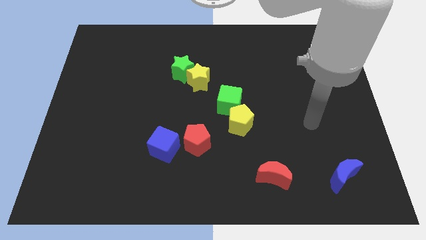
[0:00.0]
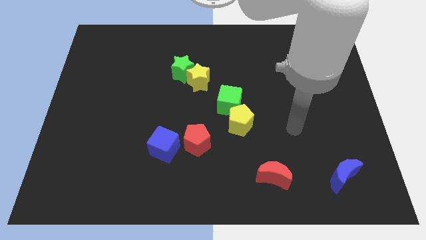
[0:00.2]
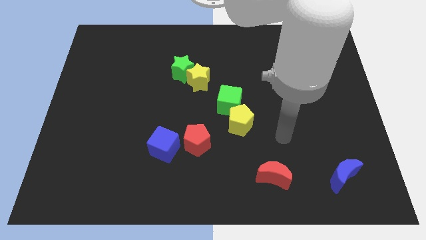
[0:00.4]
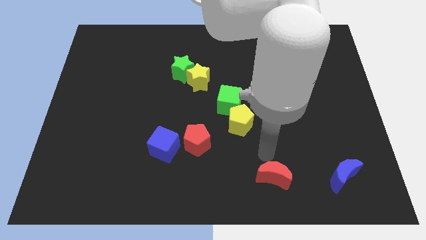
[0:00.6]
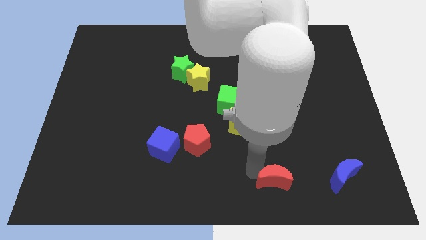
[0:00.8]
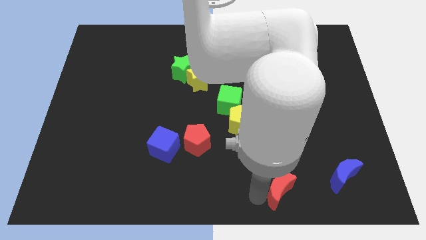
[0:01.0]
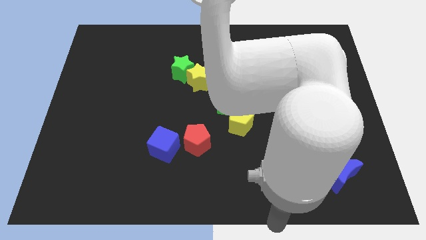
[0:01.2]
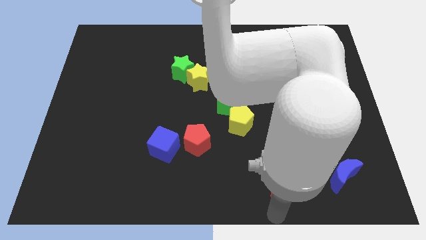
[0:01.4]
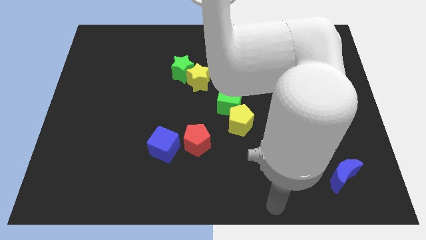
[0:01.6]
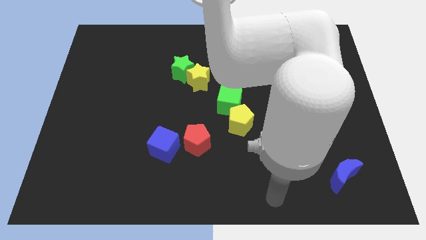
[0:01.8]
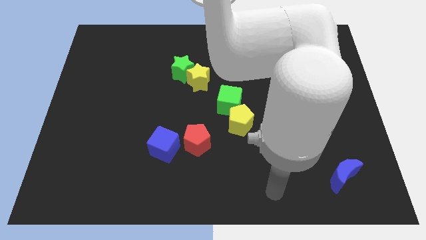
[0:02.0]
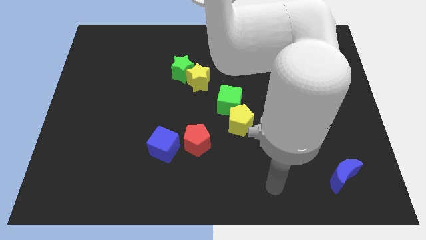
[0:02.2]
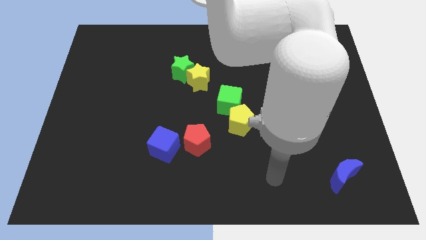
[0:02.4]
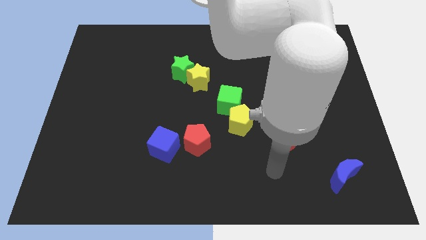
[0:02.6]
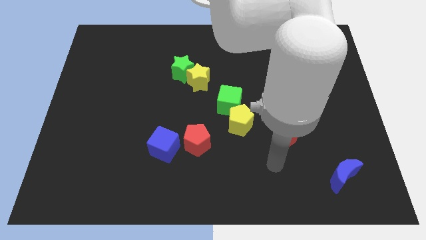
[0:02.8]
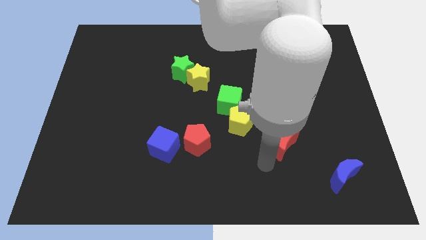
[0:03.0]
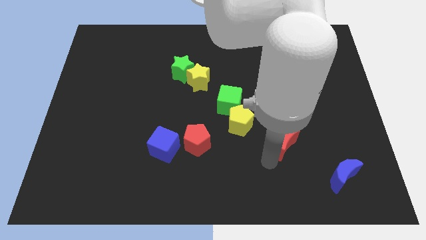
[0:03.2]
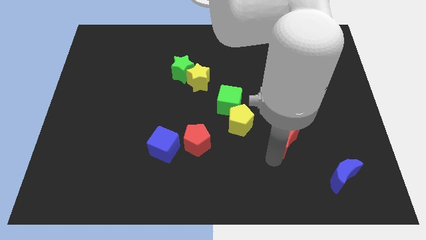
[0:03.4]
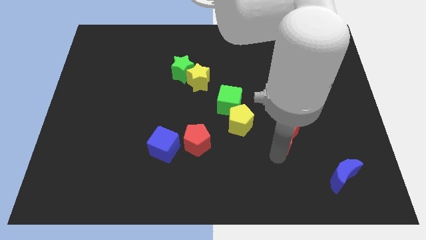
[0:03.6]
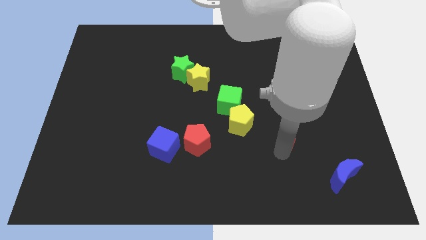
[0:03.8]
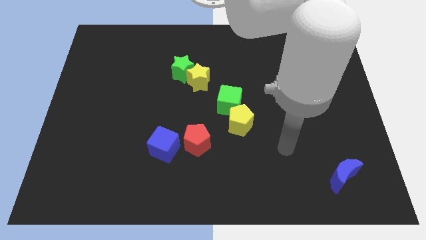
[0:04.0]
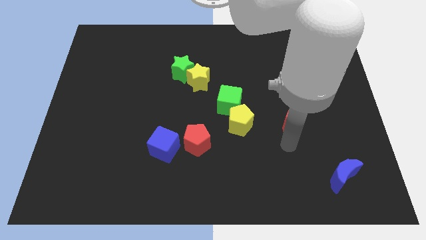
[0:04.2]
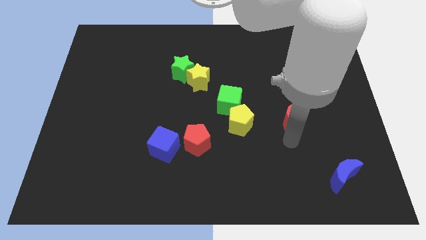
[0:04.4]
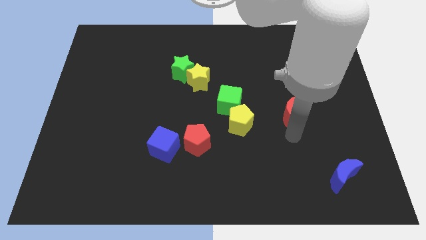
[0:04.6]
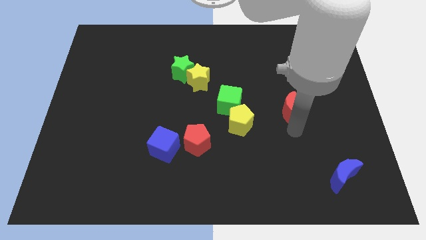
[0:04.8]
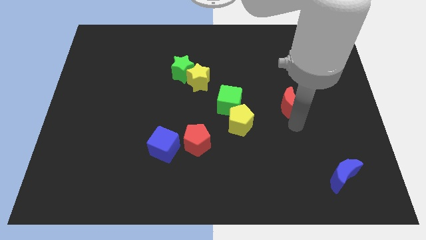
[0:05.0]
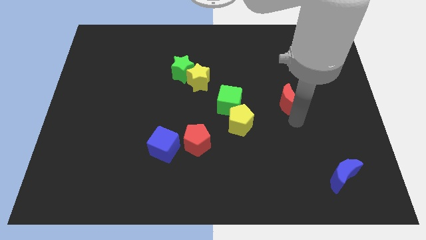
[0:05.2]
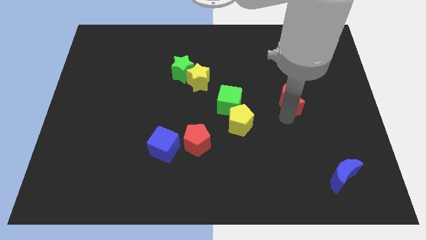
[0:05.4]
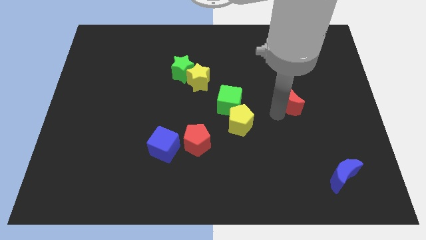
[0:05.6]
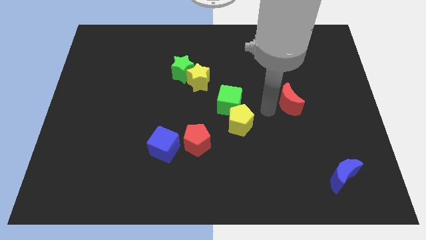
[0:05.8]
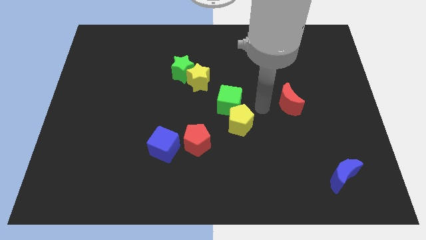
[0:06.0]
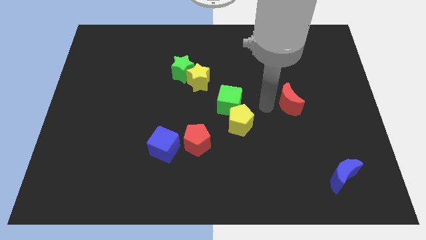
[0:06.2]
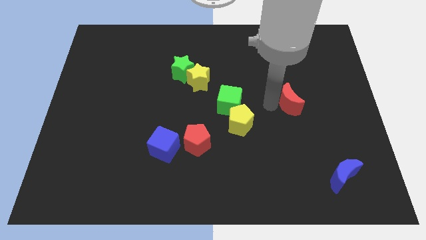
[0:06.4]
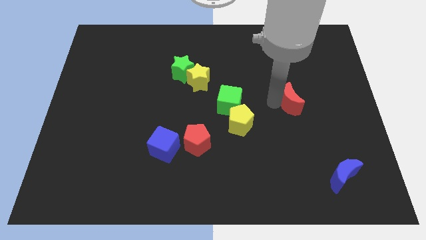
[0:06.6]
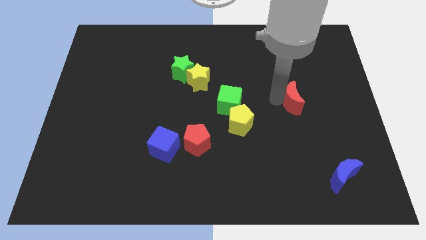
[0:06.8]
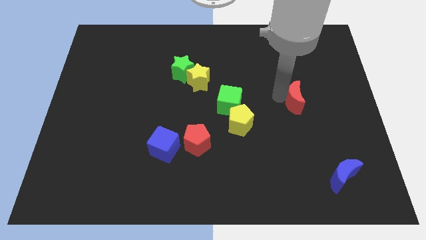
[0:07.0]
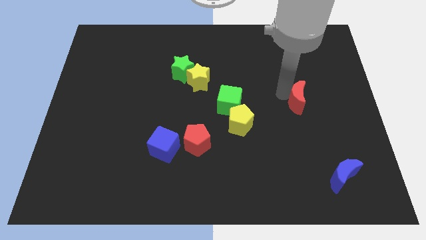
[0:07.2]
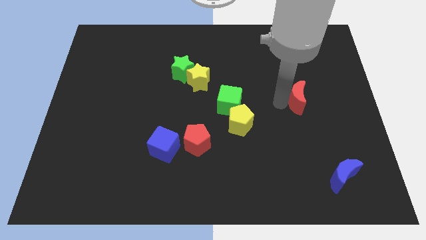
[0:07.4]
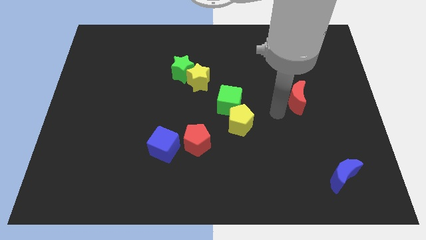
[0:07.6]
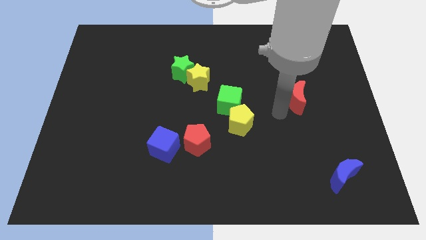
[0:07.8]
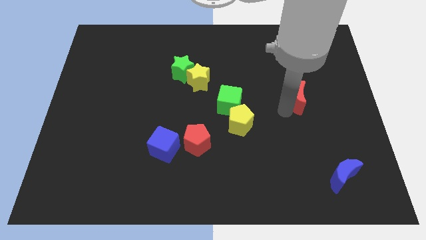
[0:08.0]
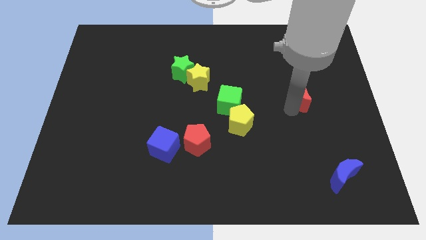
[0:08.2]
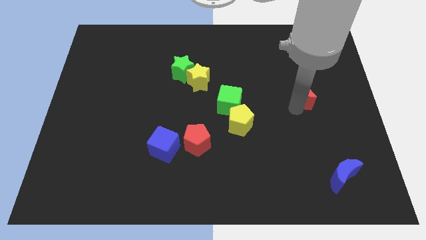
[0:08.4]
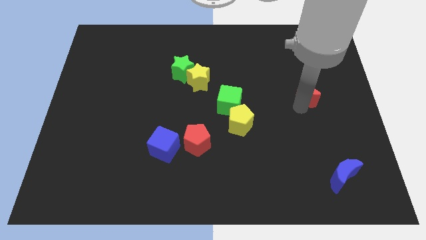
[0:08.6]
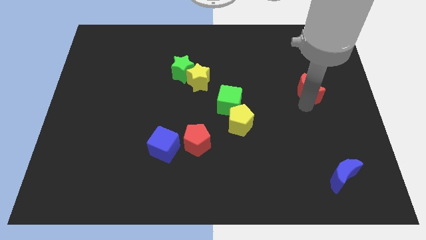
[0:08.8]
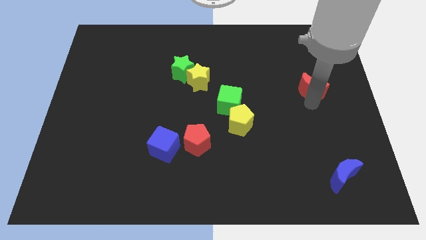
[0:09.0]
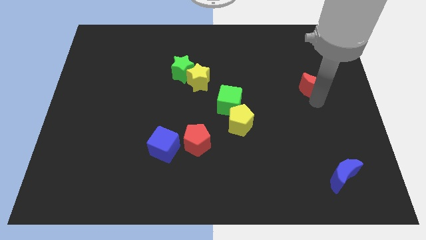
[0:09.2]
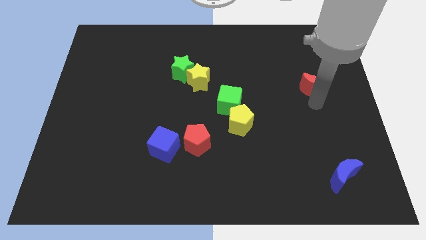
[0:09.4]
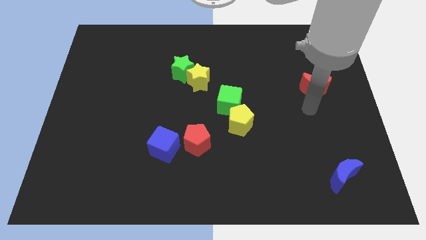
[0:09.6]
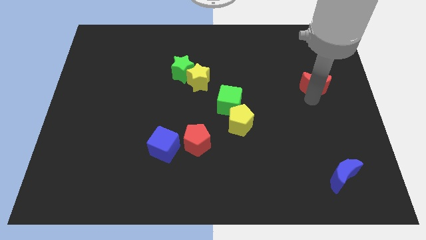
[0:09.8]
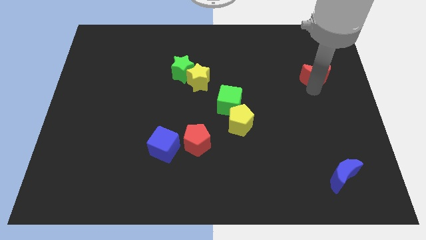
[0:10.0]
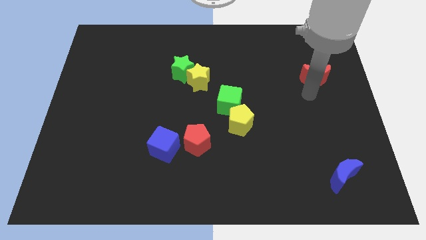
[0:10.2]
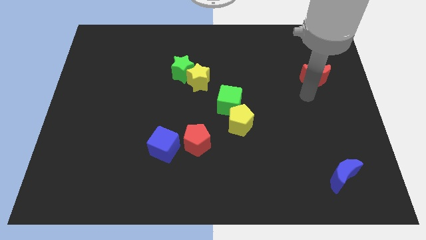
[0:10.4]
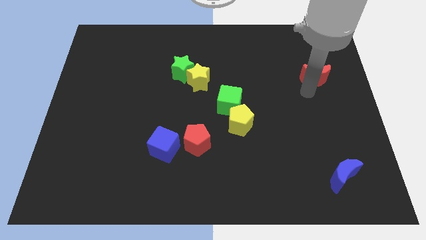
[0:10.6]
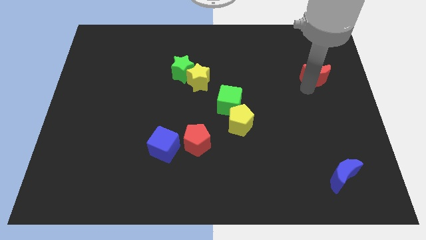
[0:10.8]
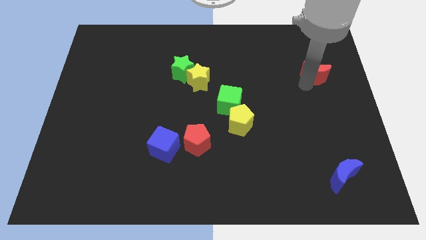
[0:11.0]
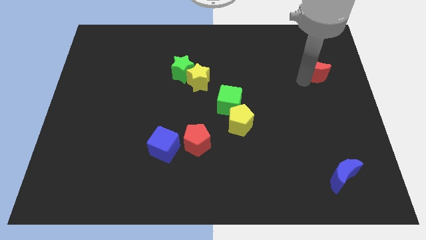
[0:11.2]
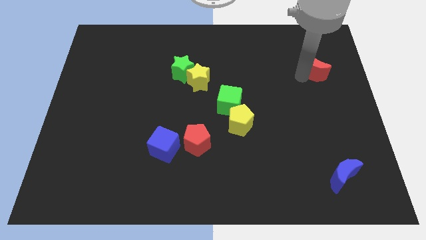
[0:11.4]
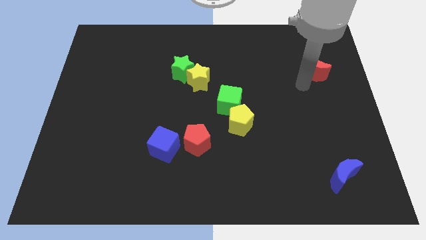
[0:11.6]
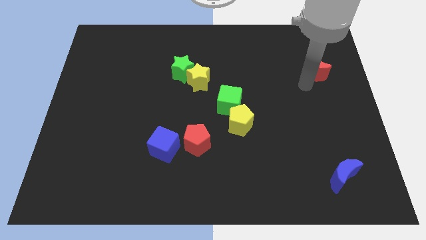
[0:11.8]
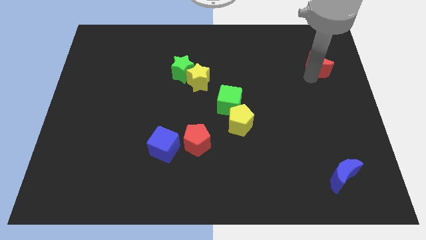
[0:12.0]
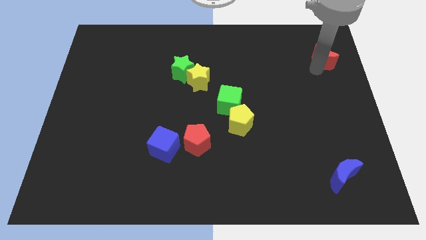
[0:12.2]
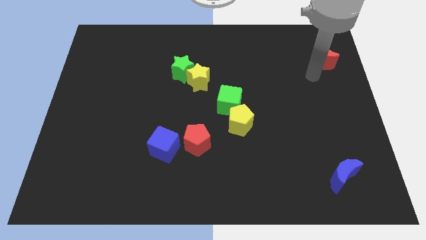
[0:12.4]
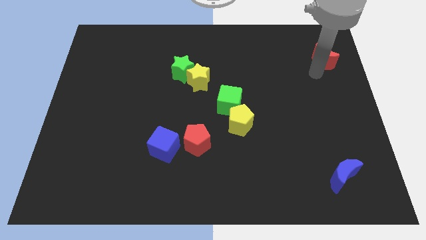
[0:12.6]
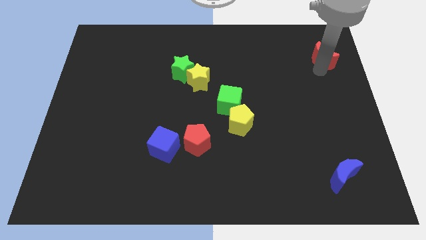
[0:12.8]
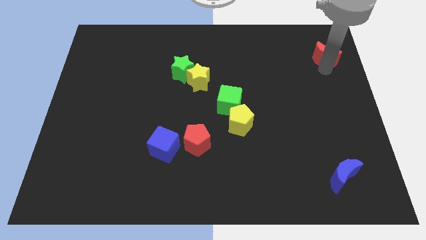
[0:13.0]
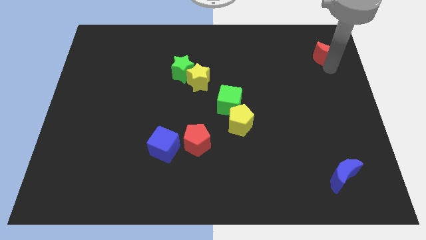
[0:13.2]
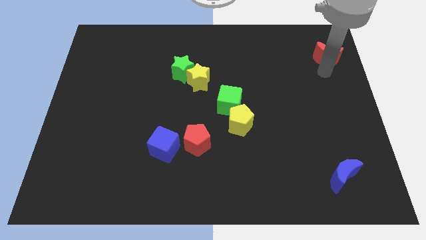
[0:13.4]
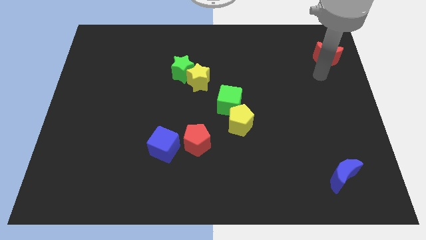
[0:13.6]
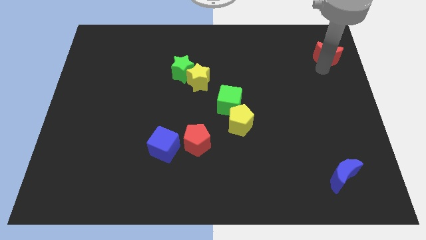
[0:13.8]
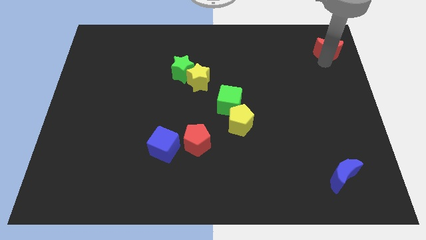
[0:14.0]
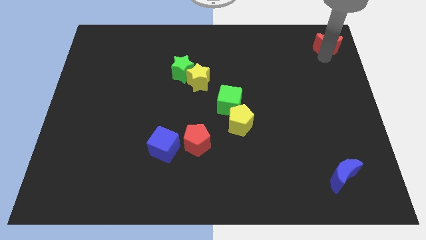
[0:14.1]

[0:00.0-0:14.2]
put the red moon to the top right of the board
